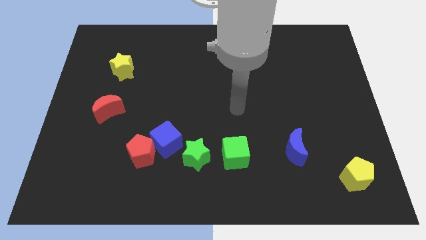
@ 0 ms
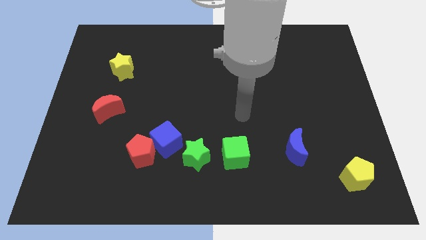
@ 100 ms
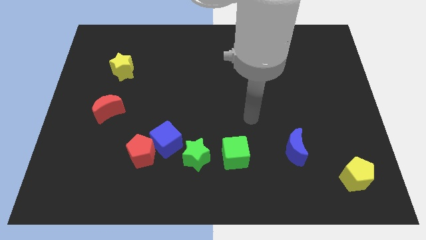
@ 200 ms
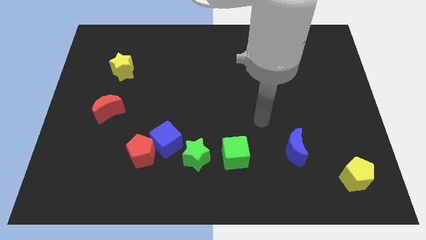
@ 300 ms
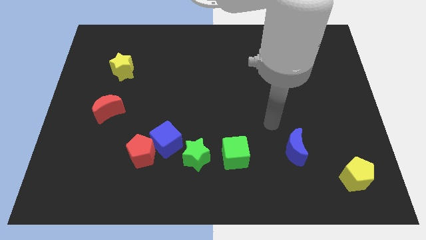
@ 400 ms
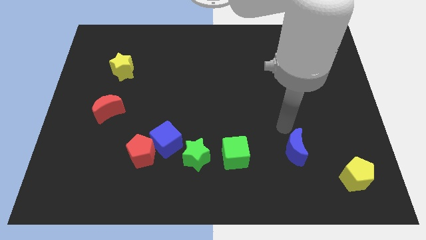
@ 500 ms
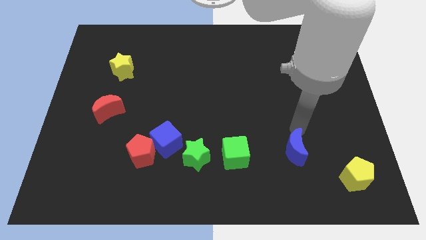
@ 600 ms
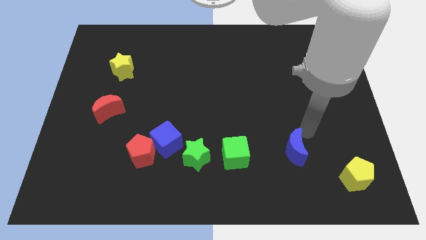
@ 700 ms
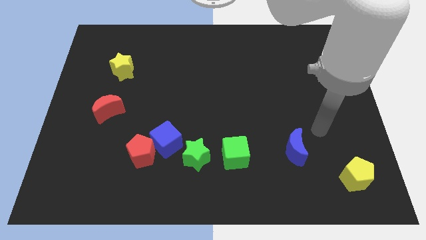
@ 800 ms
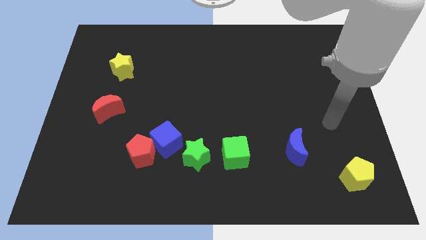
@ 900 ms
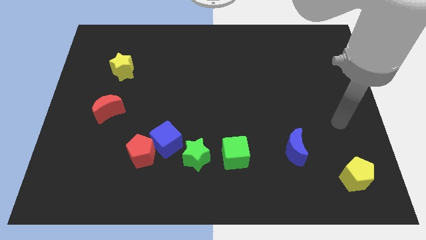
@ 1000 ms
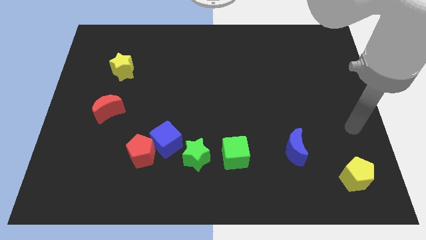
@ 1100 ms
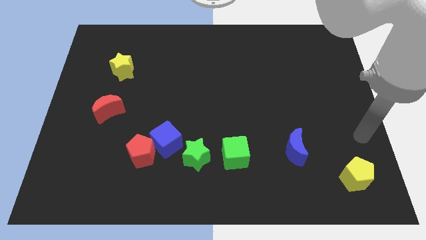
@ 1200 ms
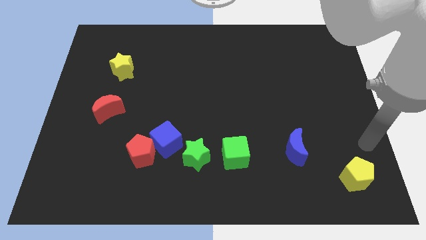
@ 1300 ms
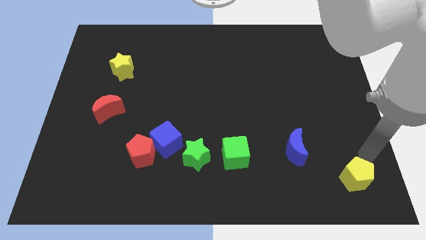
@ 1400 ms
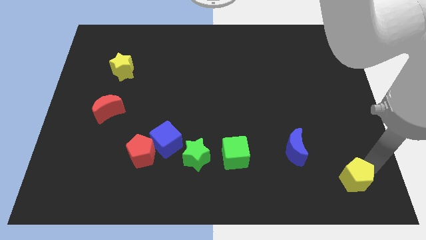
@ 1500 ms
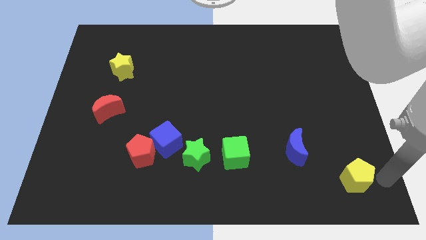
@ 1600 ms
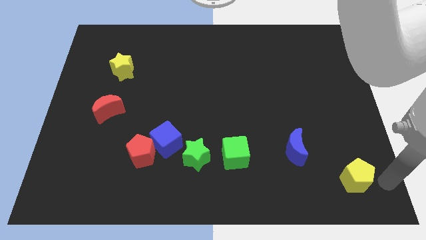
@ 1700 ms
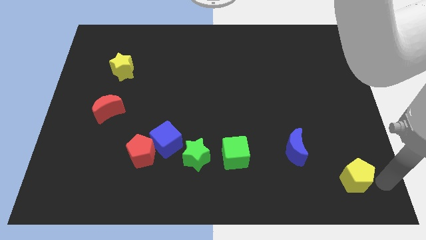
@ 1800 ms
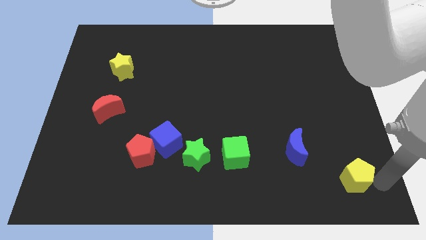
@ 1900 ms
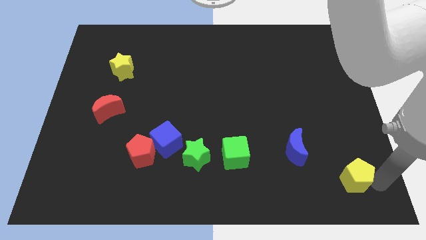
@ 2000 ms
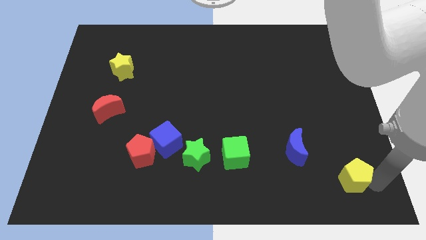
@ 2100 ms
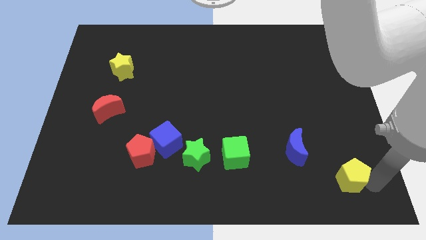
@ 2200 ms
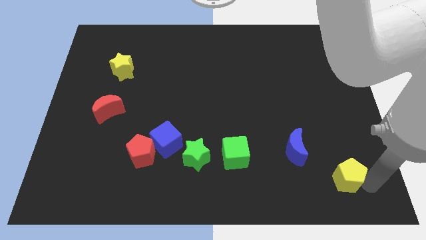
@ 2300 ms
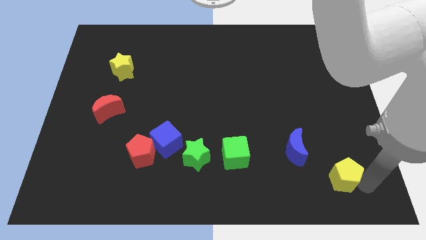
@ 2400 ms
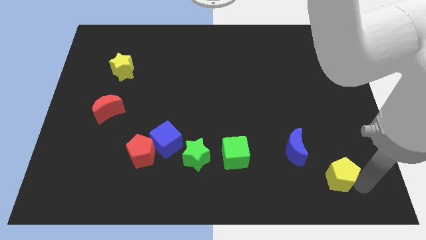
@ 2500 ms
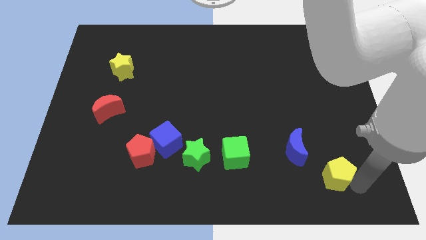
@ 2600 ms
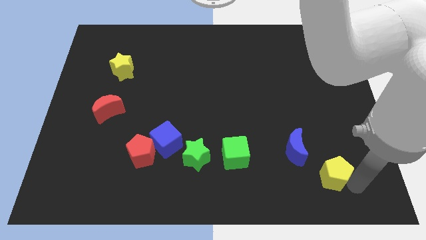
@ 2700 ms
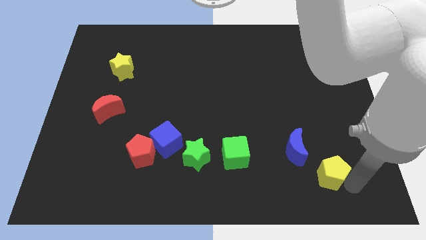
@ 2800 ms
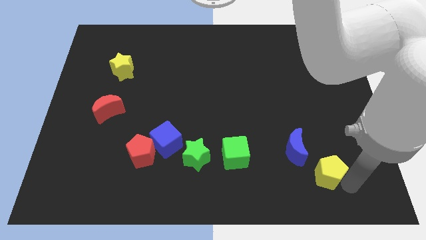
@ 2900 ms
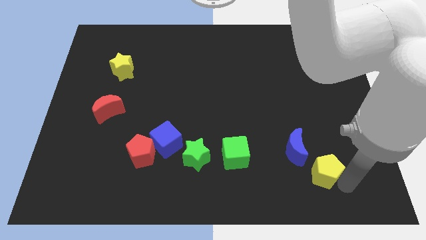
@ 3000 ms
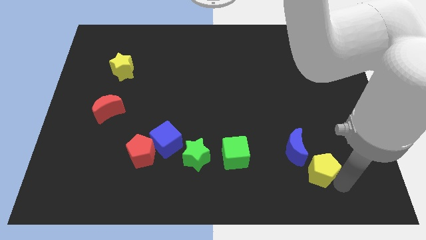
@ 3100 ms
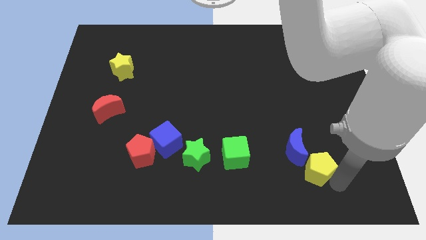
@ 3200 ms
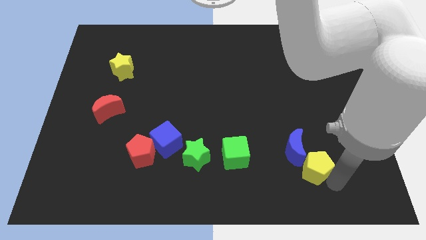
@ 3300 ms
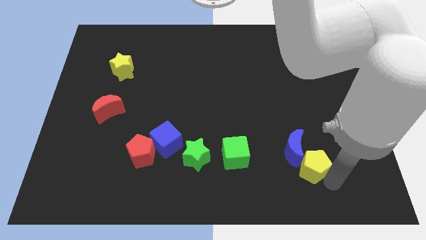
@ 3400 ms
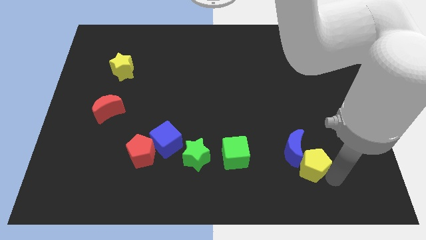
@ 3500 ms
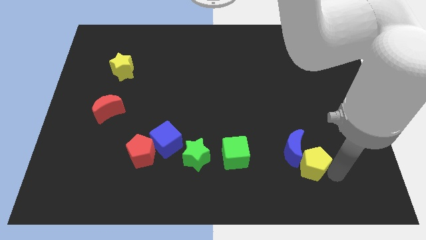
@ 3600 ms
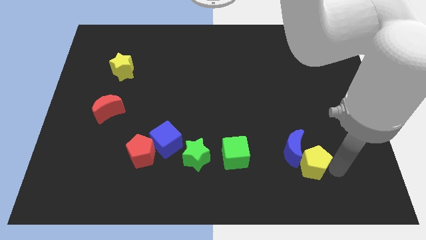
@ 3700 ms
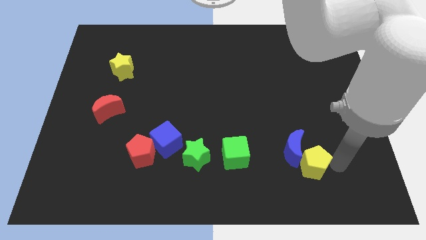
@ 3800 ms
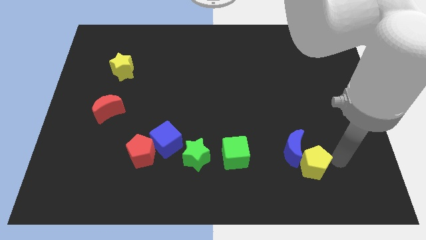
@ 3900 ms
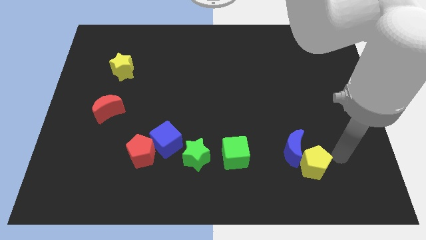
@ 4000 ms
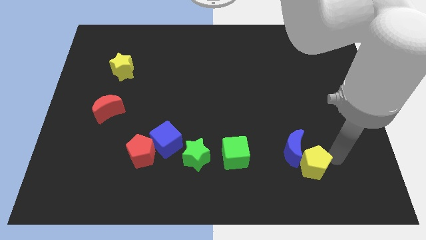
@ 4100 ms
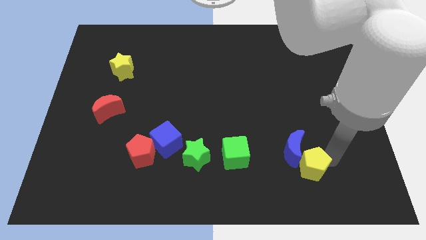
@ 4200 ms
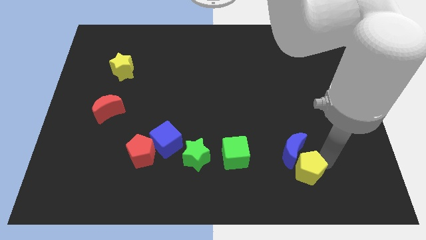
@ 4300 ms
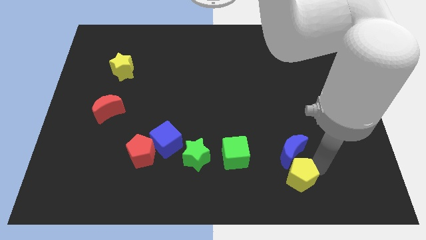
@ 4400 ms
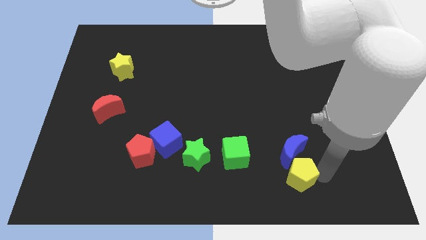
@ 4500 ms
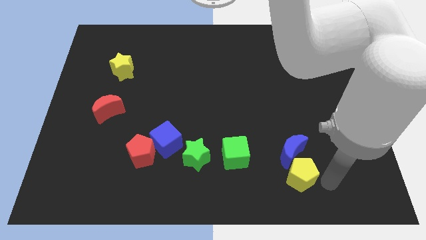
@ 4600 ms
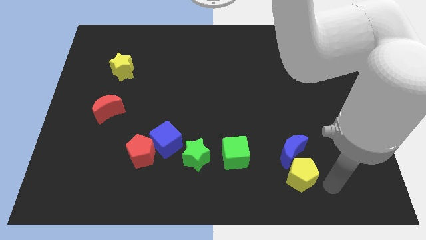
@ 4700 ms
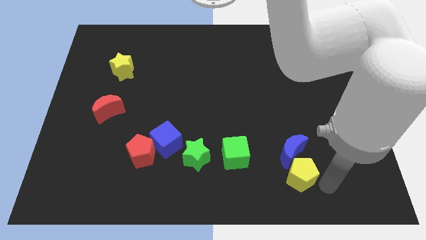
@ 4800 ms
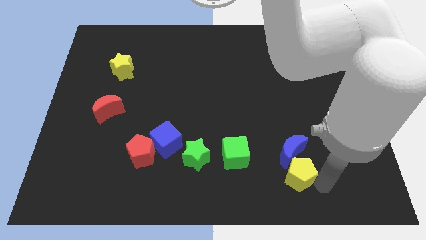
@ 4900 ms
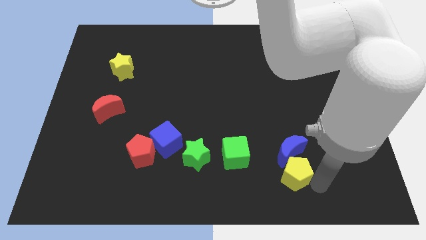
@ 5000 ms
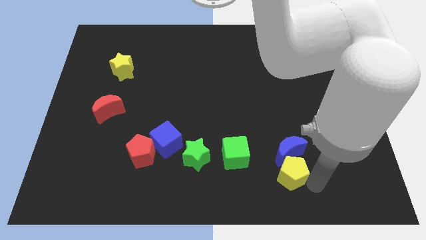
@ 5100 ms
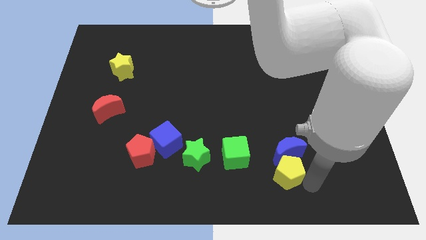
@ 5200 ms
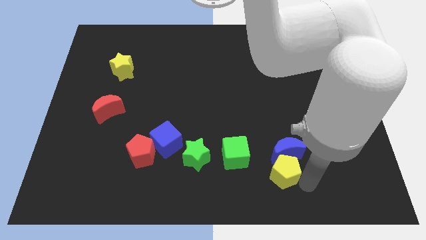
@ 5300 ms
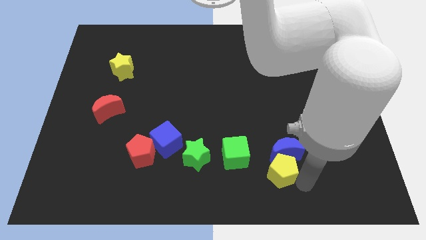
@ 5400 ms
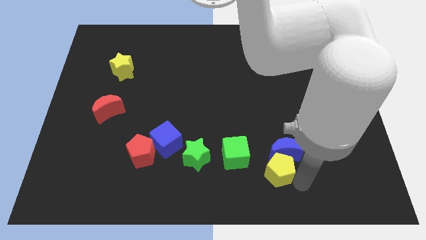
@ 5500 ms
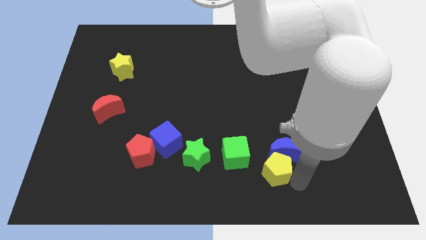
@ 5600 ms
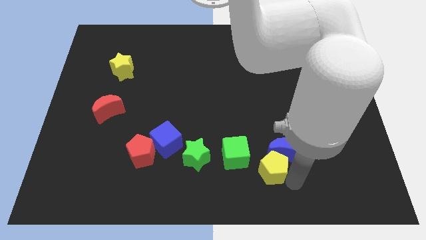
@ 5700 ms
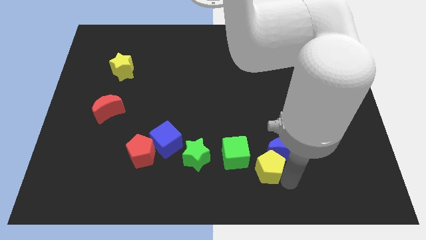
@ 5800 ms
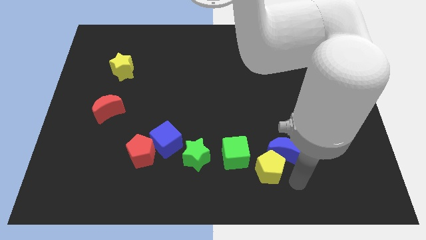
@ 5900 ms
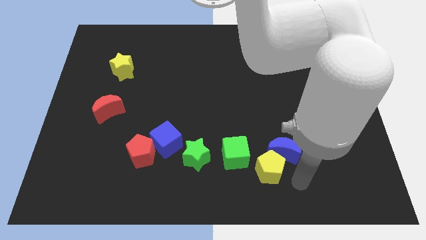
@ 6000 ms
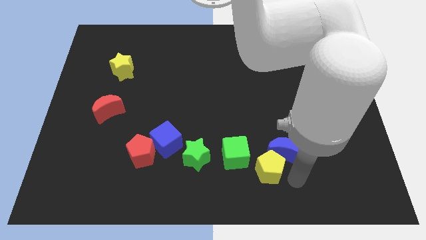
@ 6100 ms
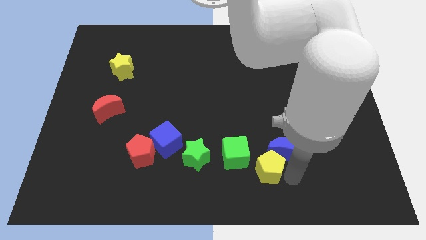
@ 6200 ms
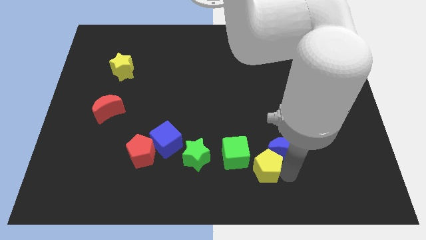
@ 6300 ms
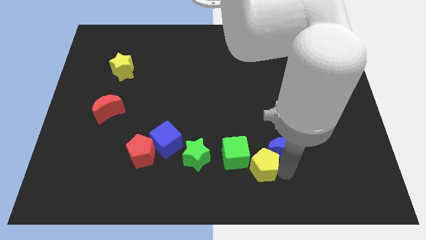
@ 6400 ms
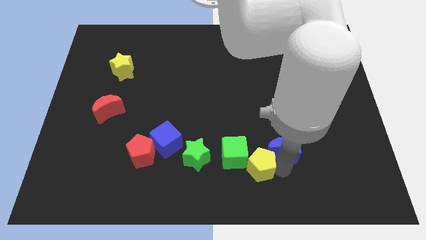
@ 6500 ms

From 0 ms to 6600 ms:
move the yellow pentagon next to the green cube
